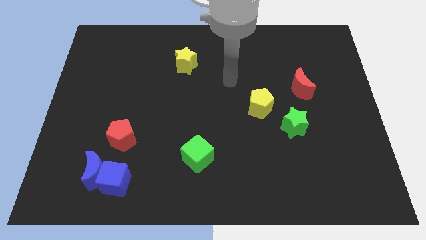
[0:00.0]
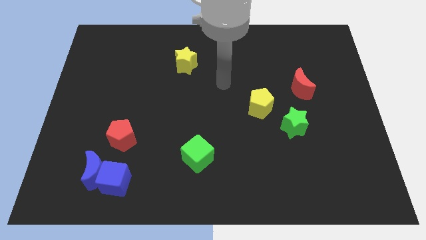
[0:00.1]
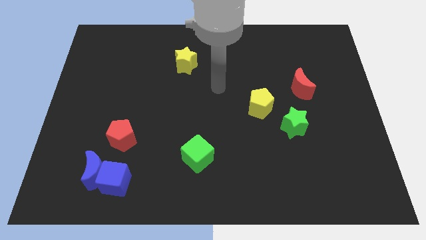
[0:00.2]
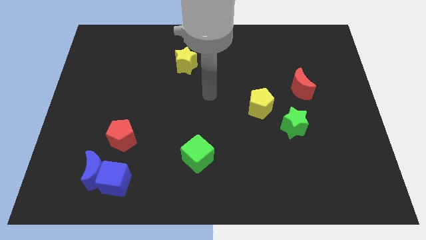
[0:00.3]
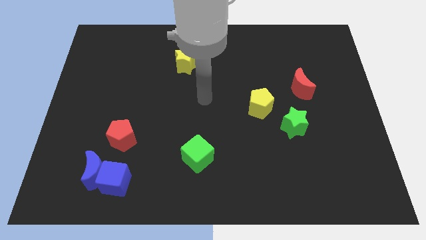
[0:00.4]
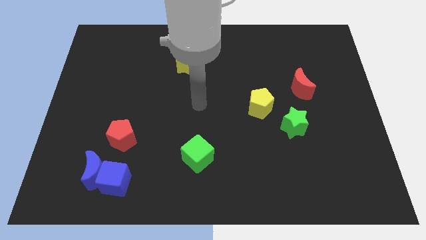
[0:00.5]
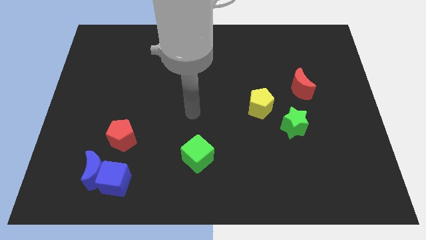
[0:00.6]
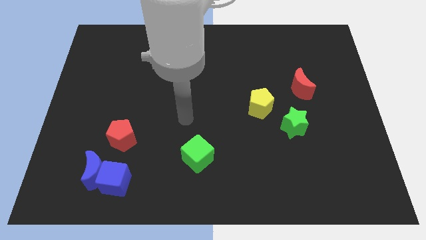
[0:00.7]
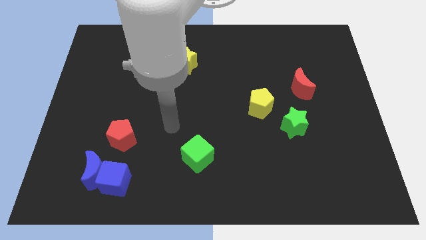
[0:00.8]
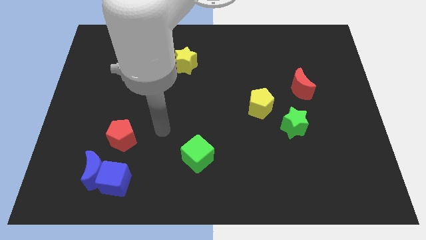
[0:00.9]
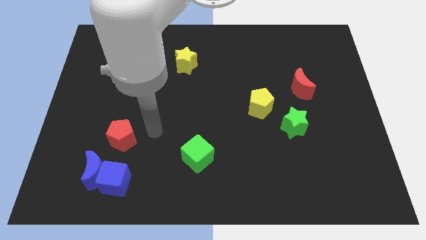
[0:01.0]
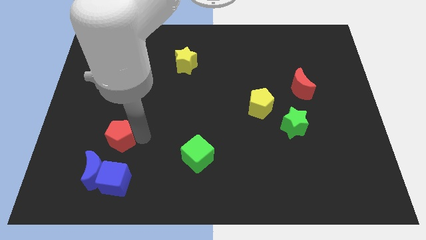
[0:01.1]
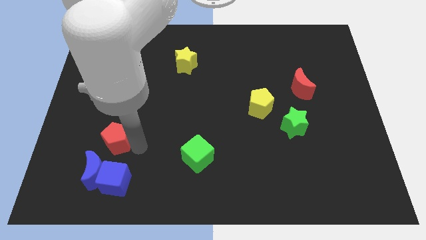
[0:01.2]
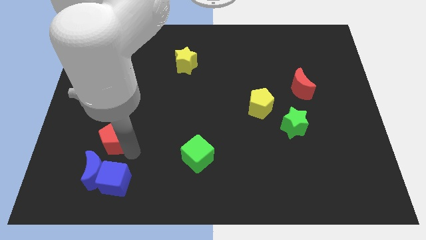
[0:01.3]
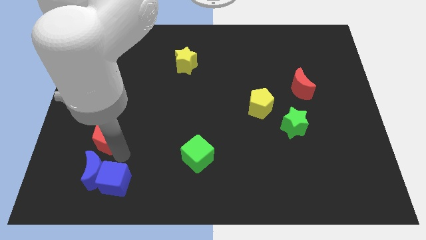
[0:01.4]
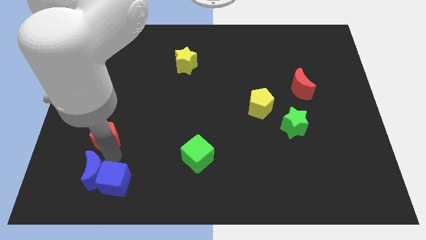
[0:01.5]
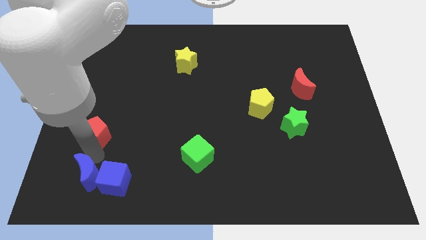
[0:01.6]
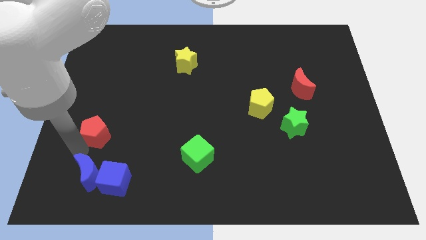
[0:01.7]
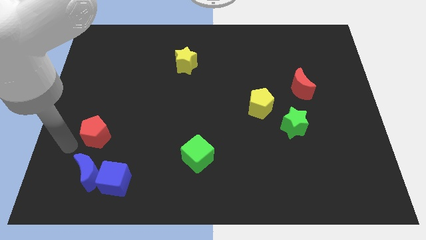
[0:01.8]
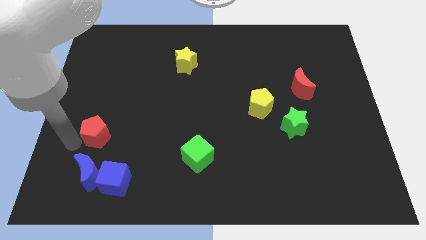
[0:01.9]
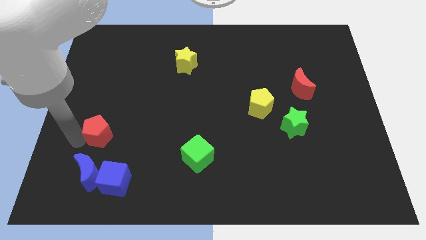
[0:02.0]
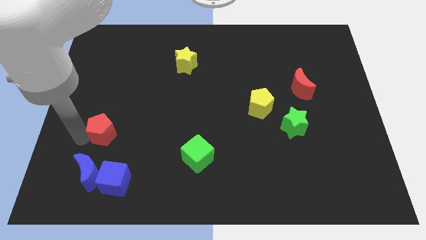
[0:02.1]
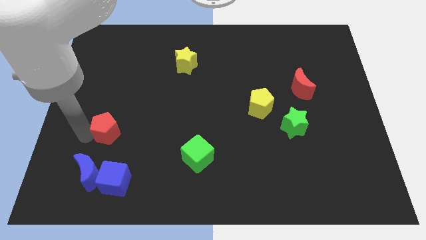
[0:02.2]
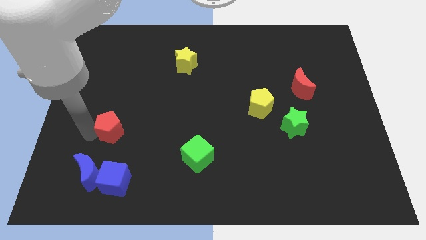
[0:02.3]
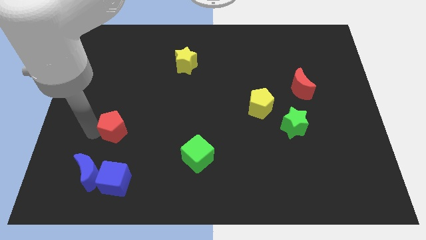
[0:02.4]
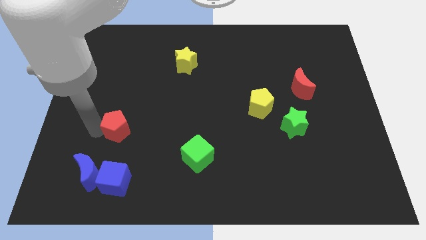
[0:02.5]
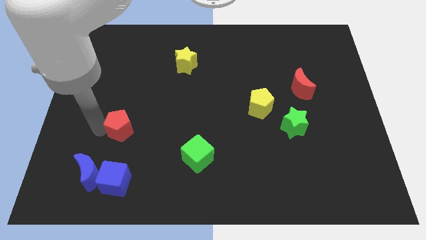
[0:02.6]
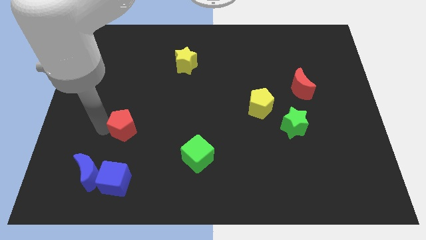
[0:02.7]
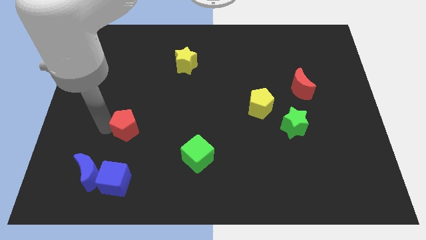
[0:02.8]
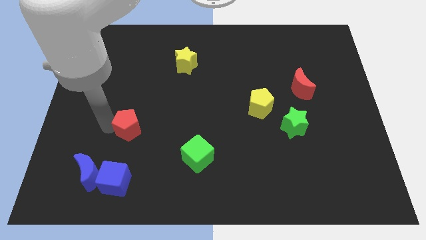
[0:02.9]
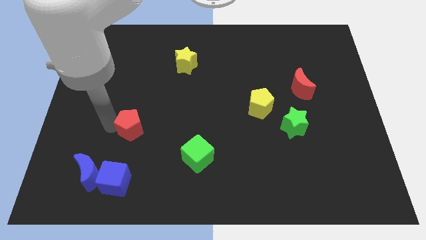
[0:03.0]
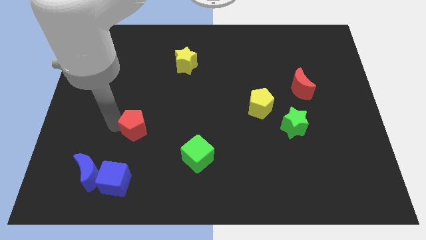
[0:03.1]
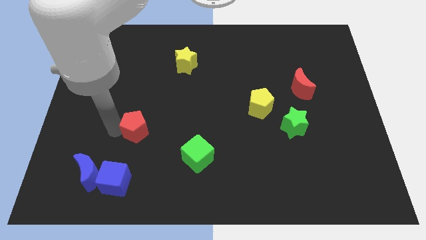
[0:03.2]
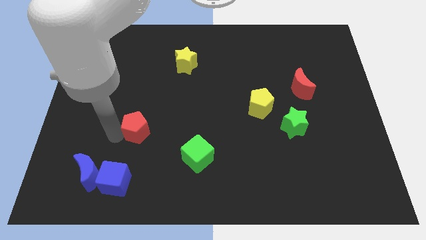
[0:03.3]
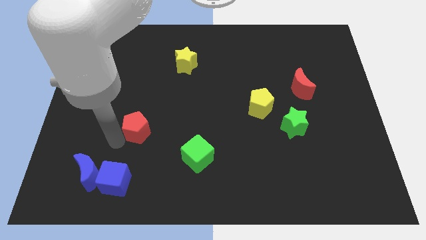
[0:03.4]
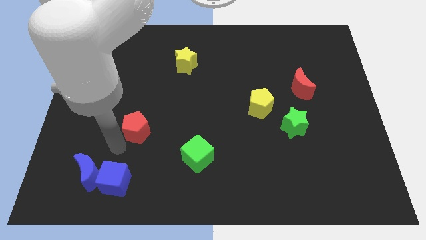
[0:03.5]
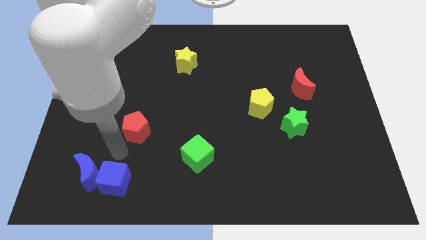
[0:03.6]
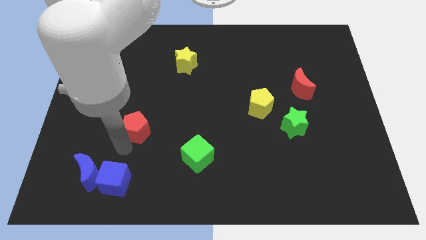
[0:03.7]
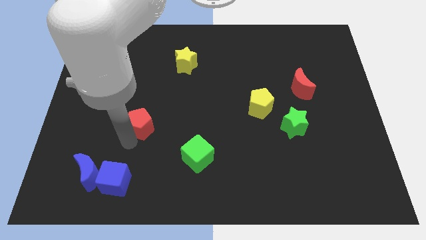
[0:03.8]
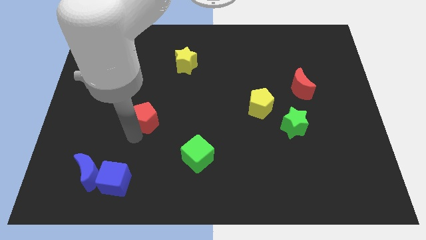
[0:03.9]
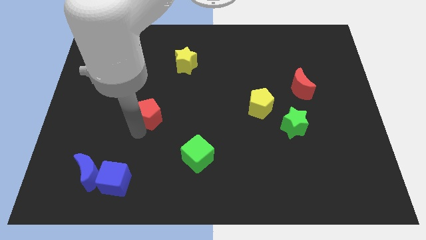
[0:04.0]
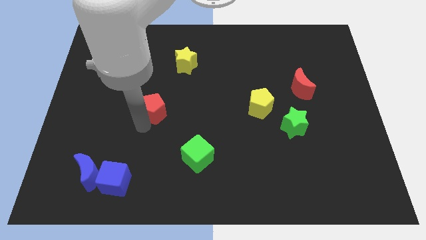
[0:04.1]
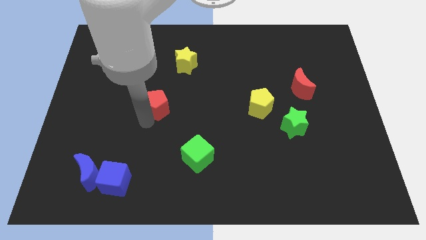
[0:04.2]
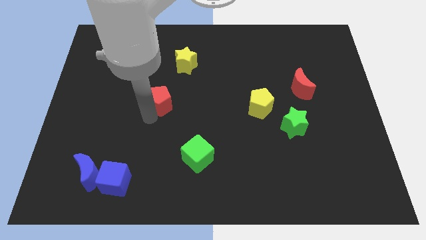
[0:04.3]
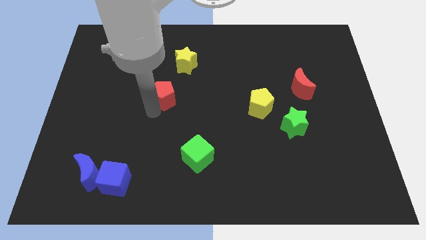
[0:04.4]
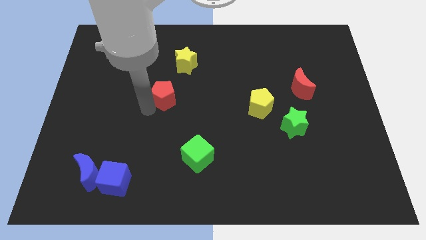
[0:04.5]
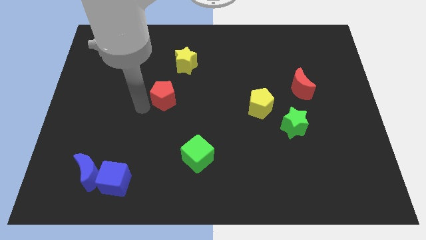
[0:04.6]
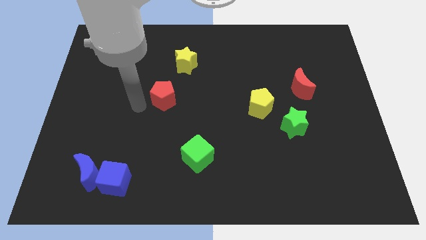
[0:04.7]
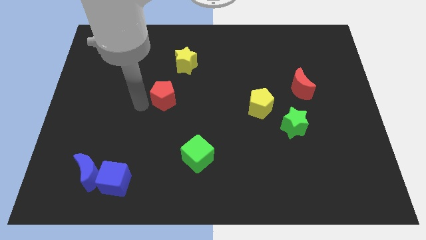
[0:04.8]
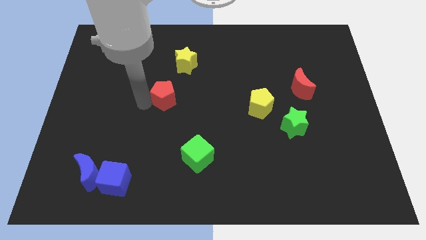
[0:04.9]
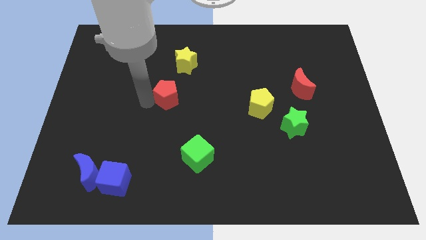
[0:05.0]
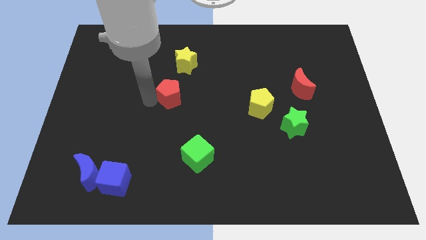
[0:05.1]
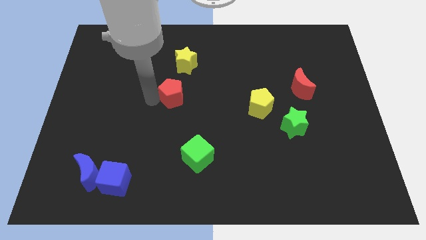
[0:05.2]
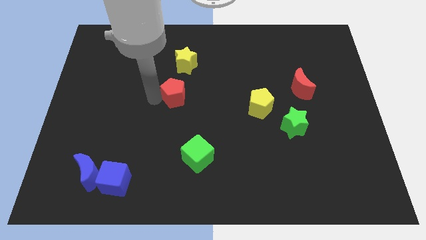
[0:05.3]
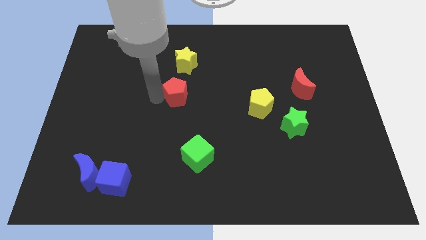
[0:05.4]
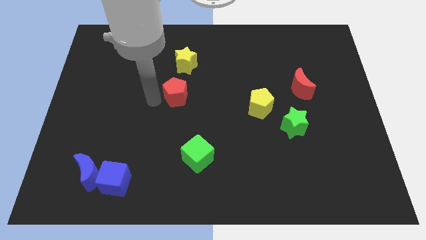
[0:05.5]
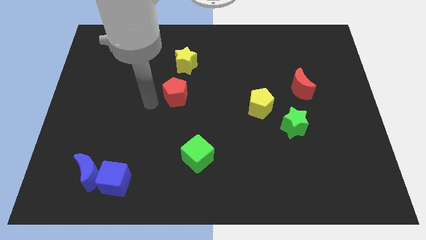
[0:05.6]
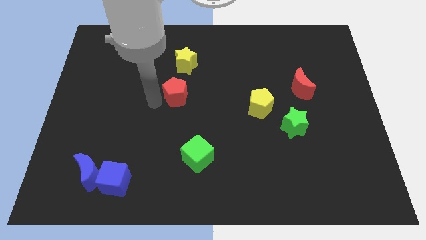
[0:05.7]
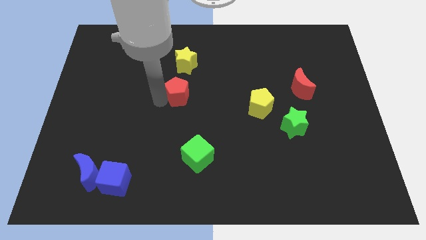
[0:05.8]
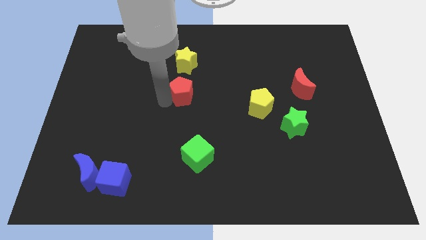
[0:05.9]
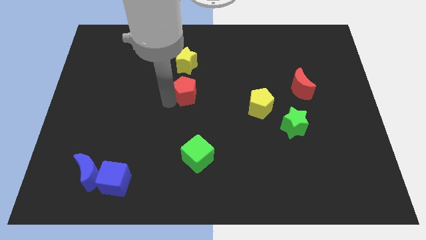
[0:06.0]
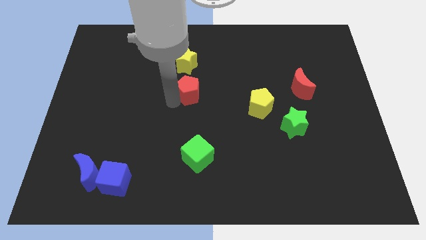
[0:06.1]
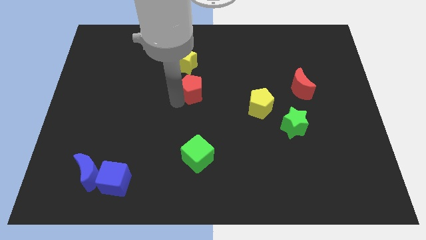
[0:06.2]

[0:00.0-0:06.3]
move the red pentagon upwards and then right

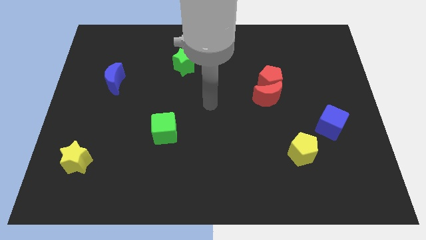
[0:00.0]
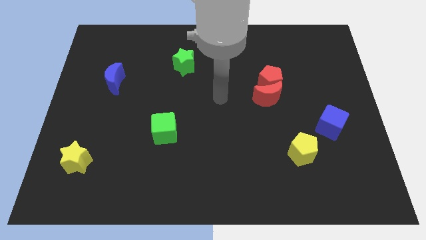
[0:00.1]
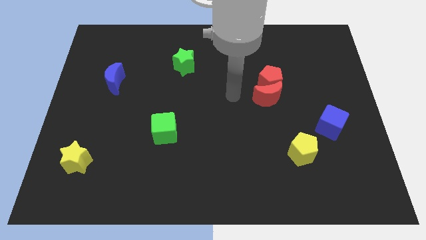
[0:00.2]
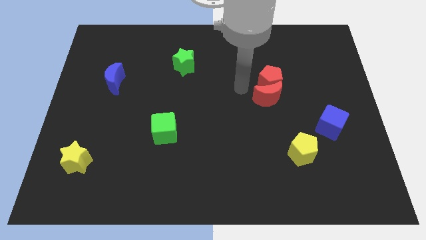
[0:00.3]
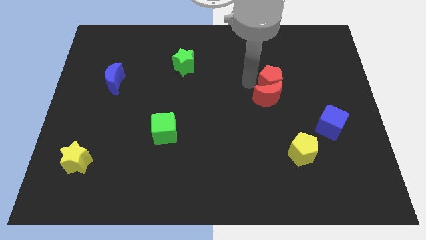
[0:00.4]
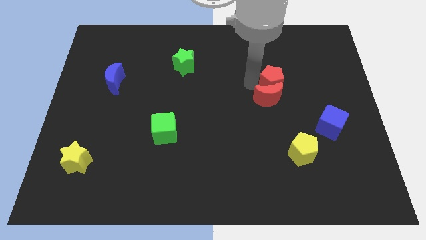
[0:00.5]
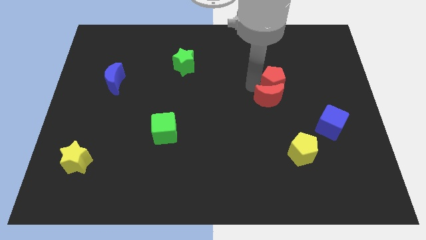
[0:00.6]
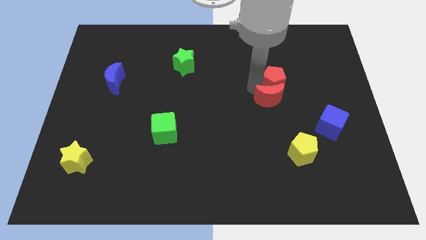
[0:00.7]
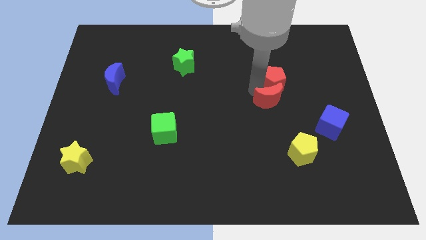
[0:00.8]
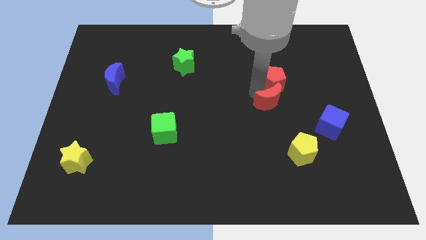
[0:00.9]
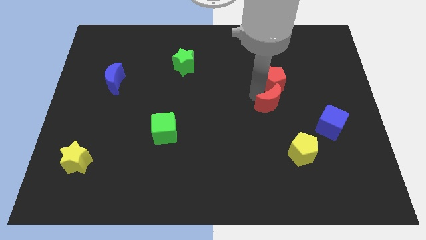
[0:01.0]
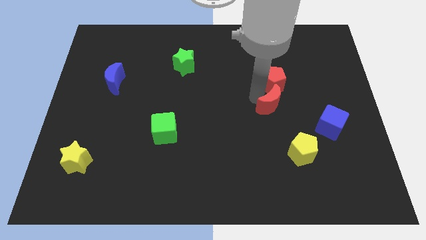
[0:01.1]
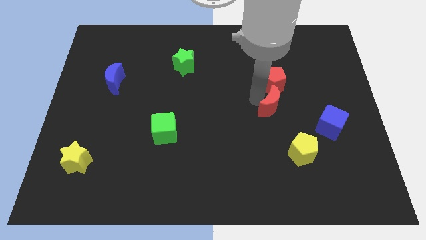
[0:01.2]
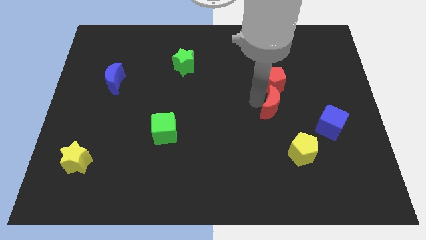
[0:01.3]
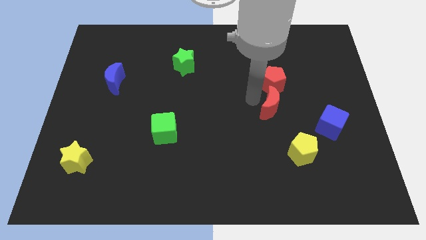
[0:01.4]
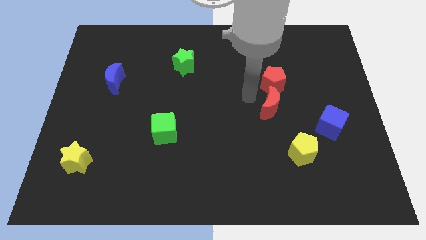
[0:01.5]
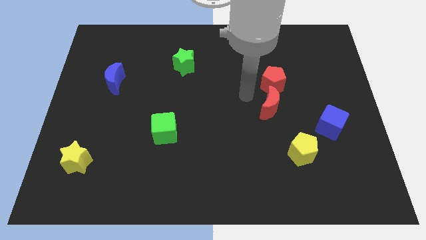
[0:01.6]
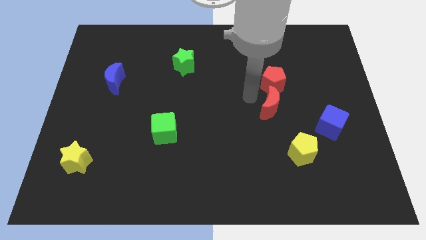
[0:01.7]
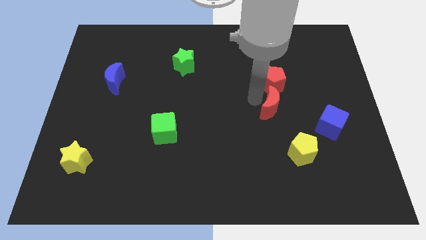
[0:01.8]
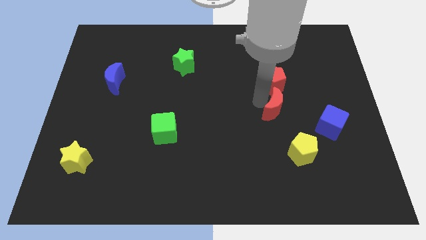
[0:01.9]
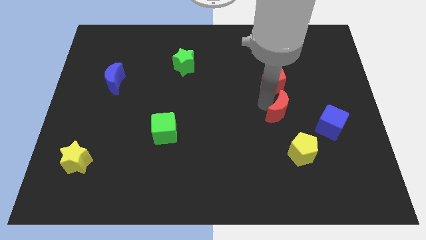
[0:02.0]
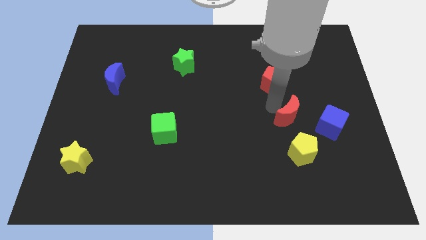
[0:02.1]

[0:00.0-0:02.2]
slide the red moon a little bit downwards and right
